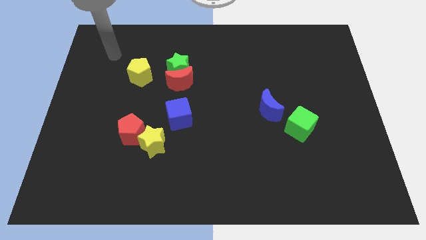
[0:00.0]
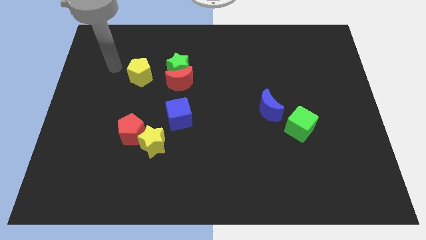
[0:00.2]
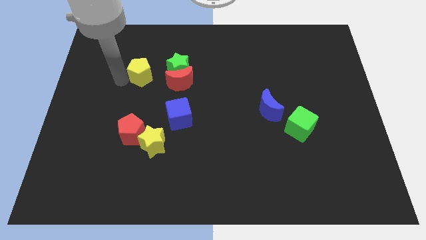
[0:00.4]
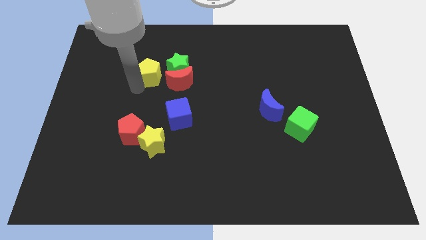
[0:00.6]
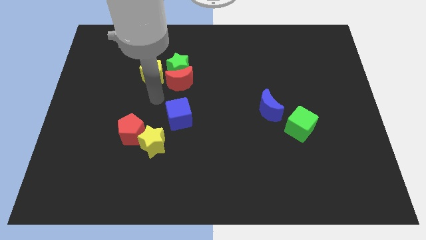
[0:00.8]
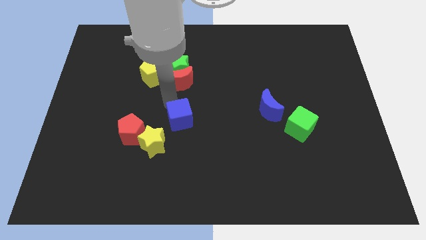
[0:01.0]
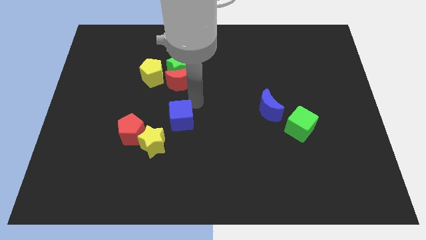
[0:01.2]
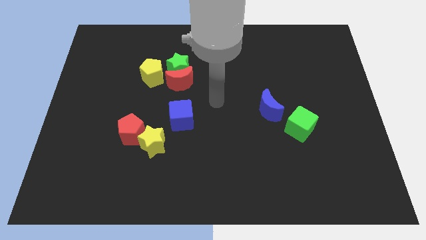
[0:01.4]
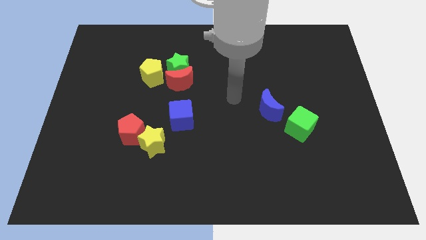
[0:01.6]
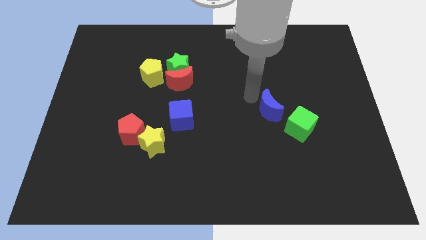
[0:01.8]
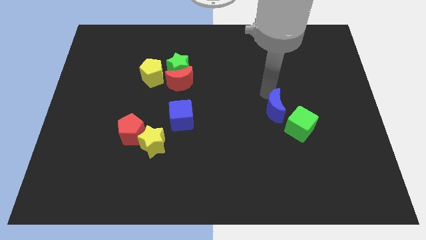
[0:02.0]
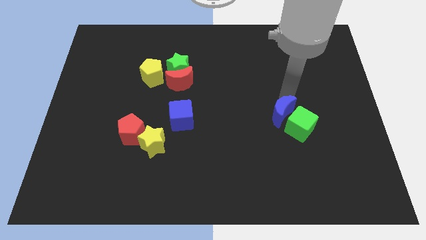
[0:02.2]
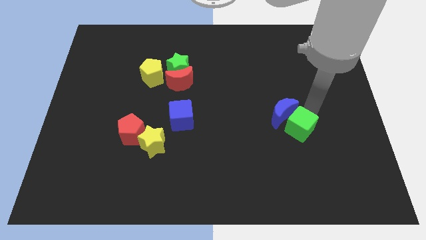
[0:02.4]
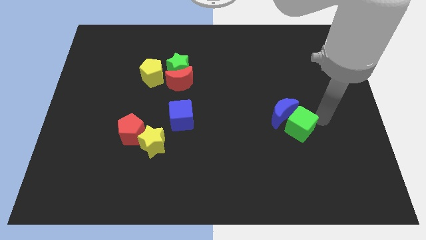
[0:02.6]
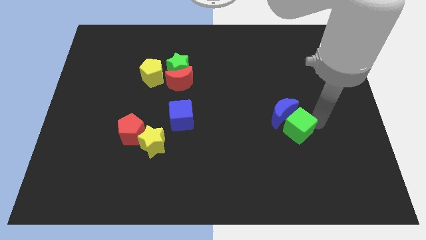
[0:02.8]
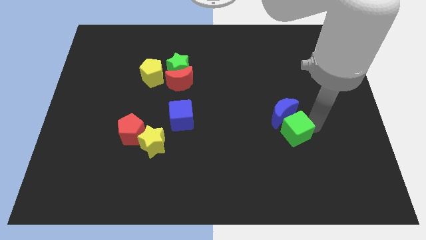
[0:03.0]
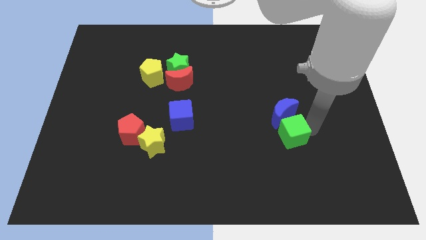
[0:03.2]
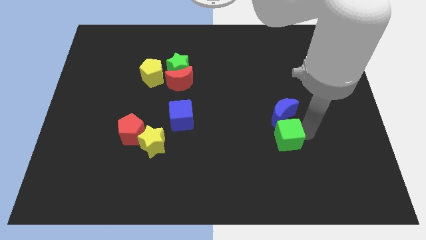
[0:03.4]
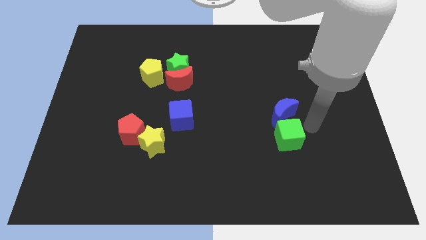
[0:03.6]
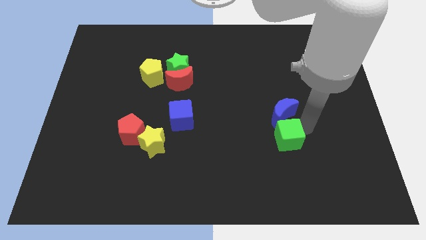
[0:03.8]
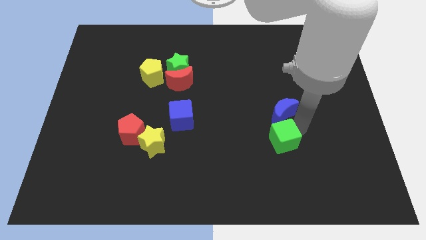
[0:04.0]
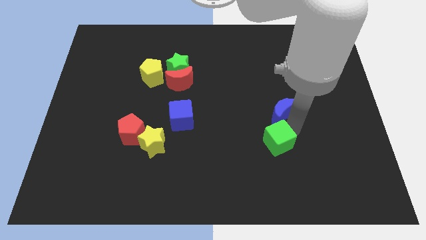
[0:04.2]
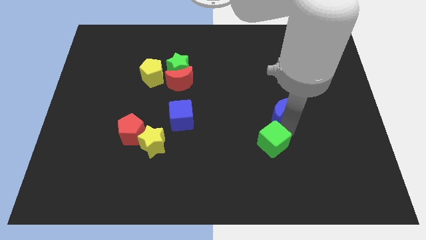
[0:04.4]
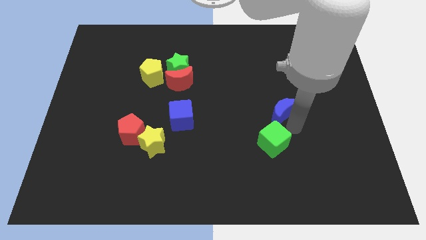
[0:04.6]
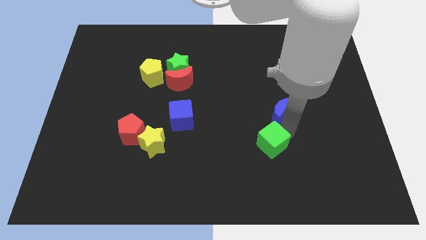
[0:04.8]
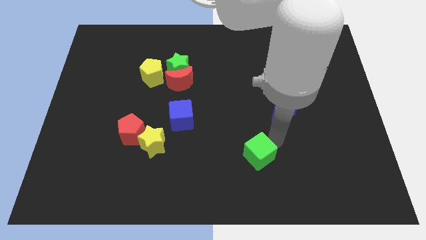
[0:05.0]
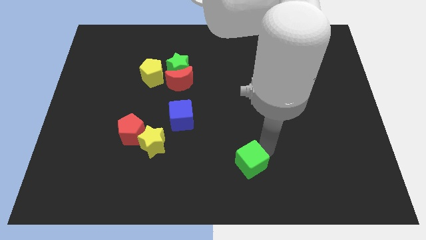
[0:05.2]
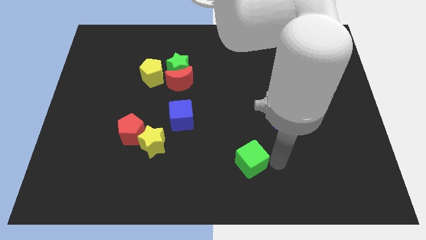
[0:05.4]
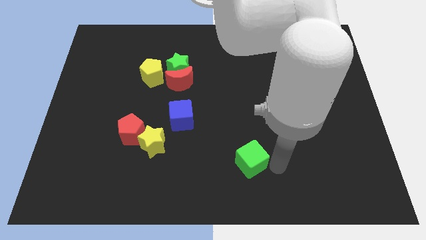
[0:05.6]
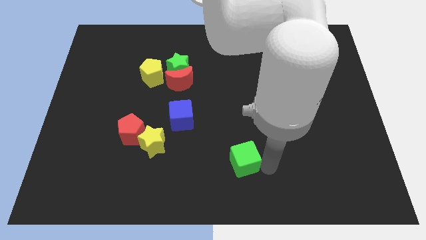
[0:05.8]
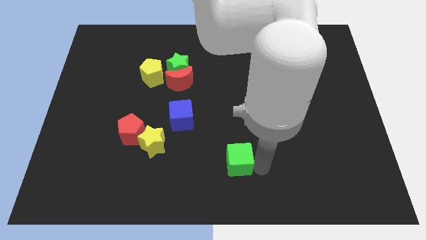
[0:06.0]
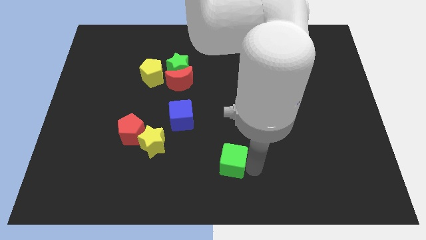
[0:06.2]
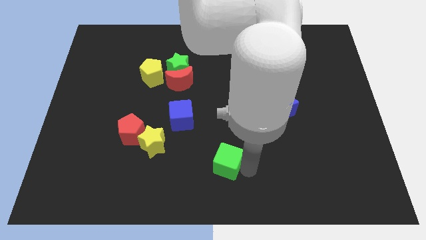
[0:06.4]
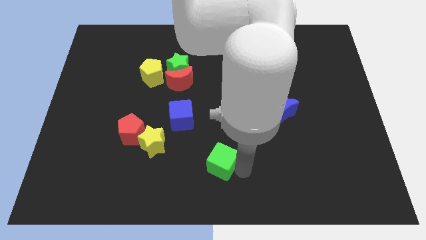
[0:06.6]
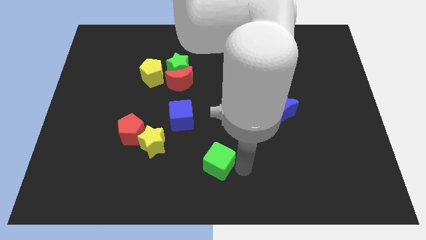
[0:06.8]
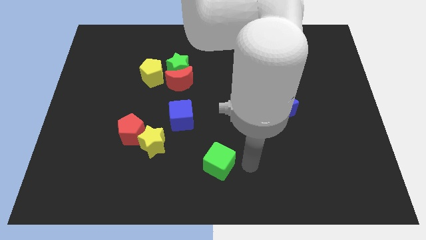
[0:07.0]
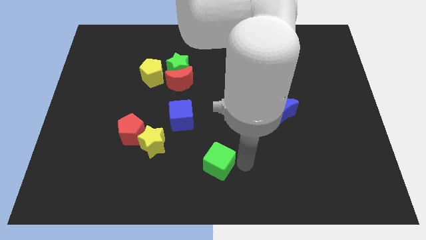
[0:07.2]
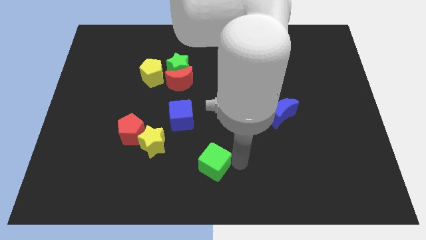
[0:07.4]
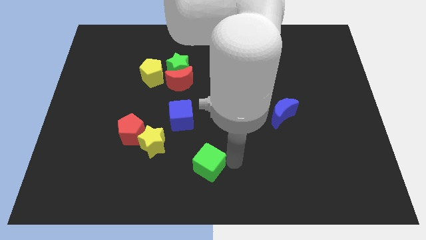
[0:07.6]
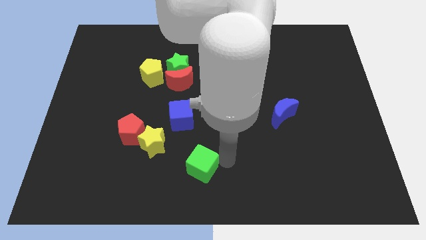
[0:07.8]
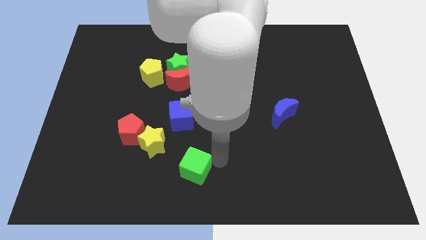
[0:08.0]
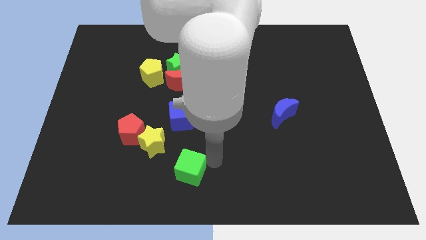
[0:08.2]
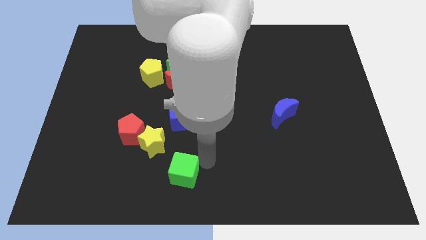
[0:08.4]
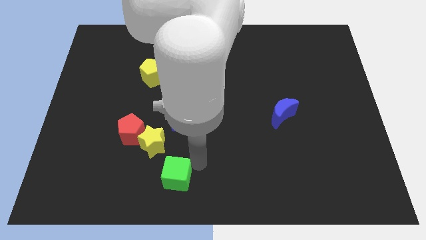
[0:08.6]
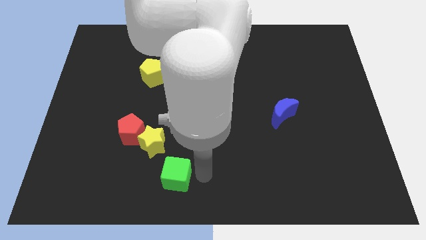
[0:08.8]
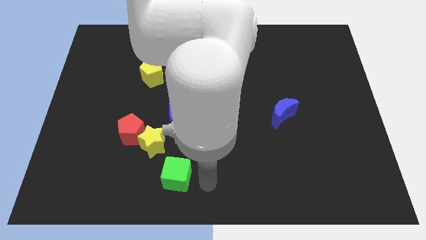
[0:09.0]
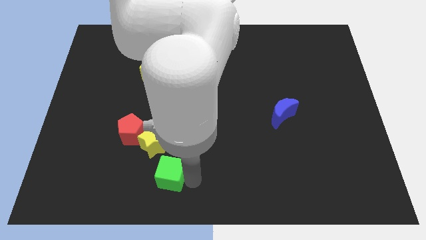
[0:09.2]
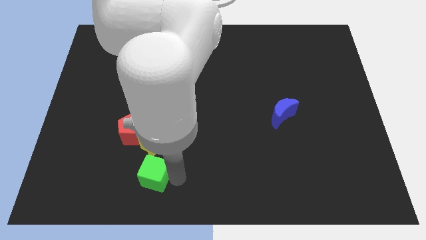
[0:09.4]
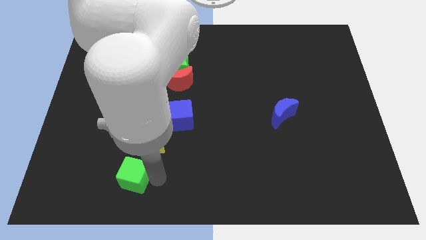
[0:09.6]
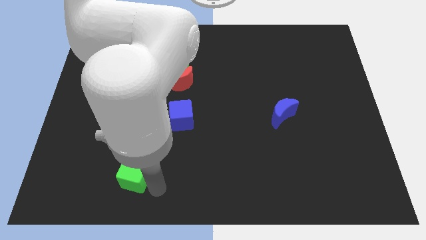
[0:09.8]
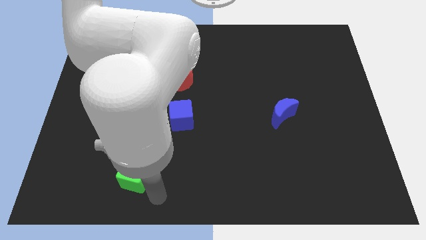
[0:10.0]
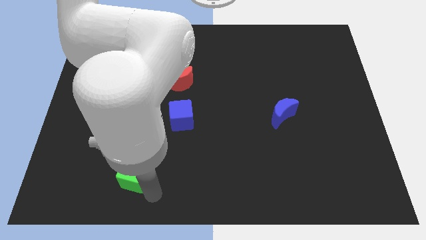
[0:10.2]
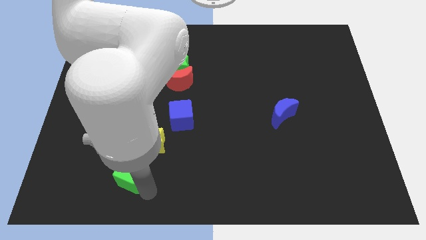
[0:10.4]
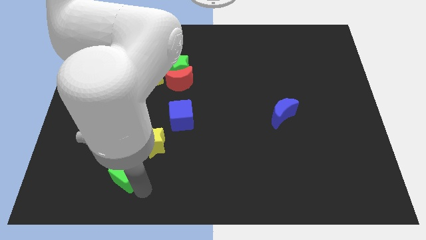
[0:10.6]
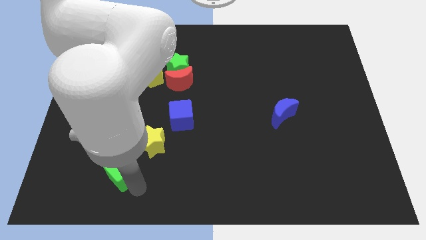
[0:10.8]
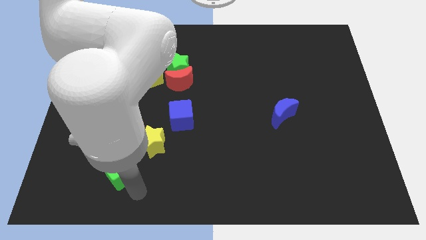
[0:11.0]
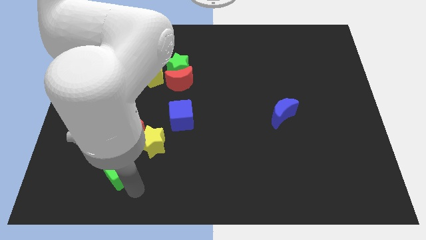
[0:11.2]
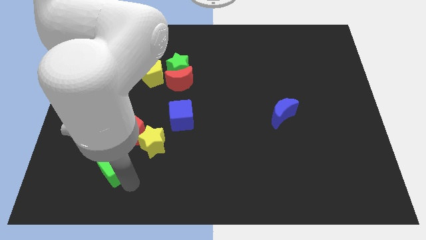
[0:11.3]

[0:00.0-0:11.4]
push the green cube diagonally down and to the left of the red pentagon
